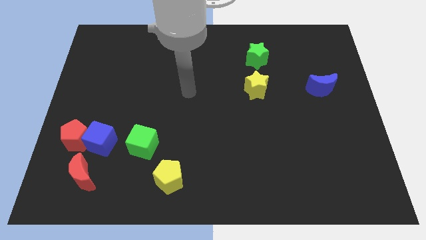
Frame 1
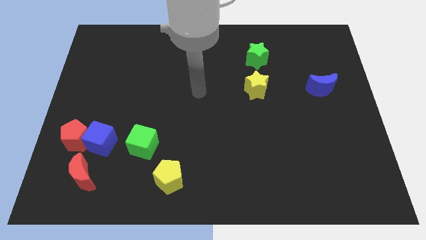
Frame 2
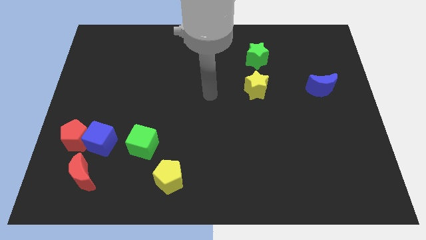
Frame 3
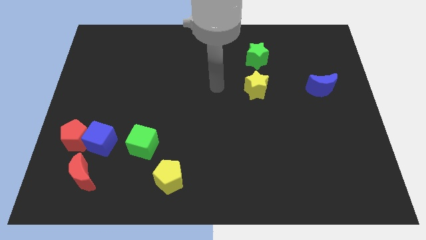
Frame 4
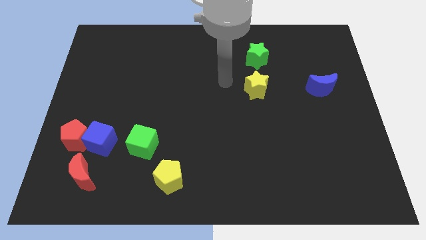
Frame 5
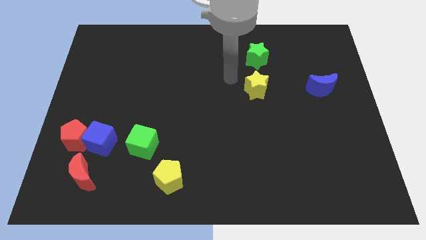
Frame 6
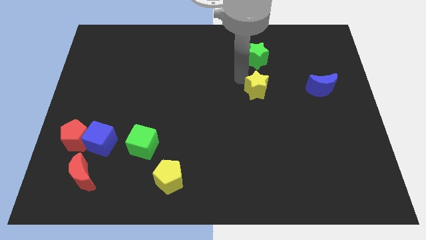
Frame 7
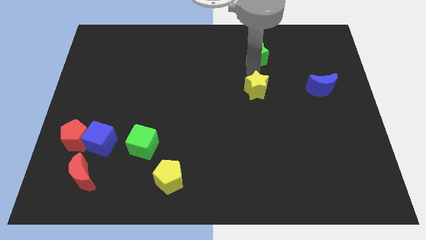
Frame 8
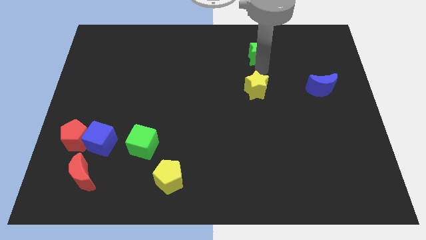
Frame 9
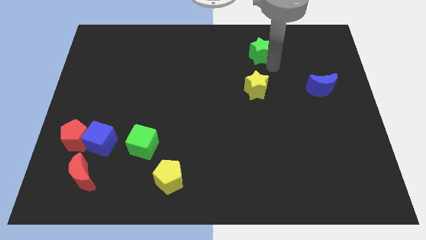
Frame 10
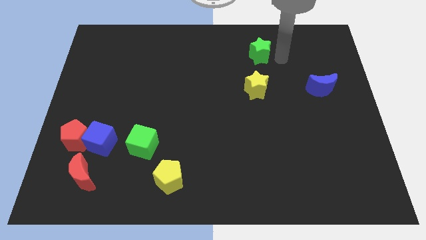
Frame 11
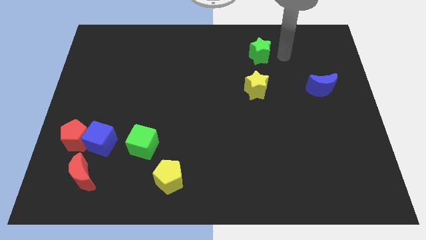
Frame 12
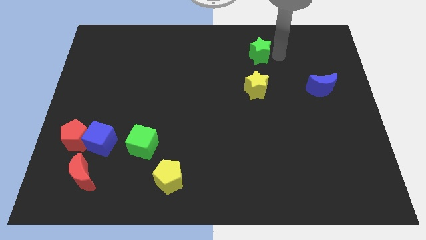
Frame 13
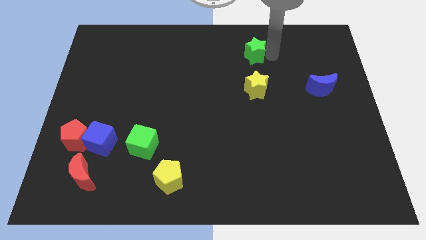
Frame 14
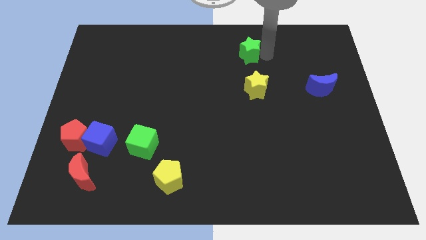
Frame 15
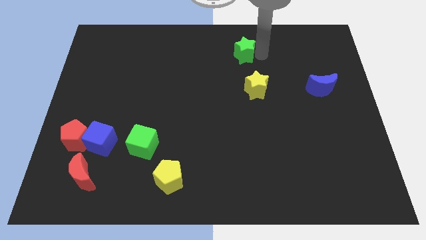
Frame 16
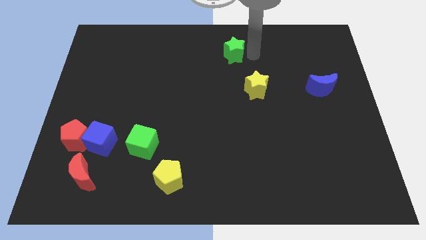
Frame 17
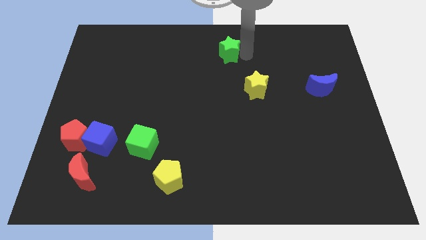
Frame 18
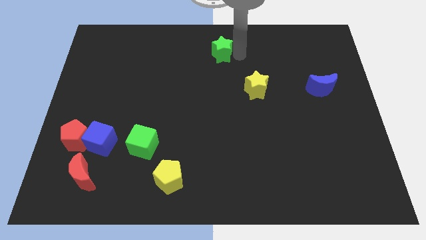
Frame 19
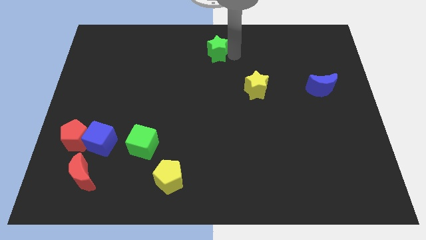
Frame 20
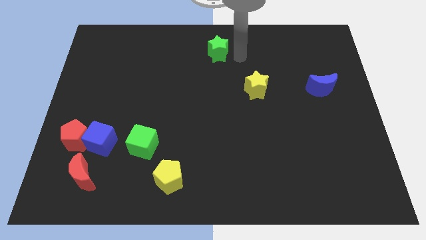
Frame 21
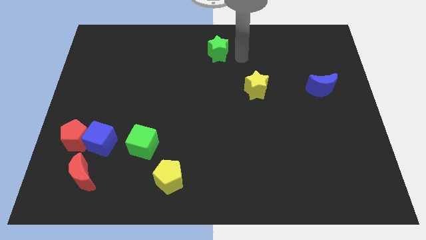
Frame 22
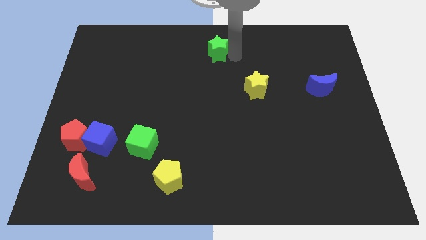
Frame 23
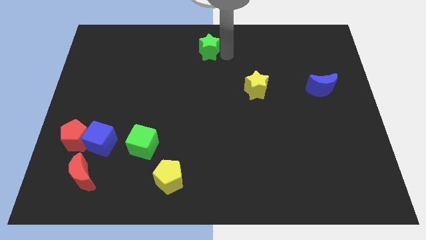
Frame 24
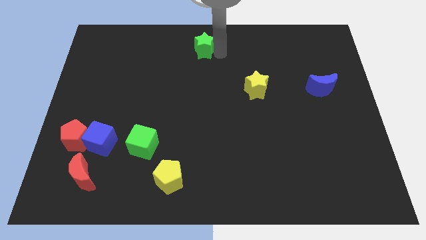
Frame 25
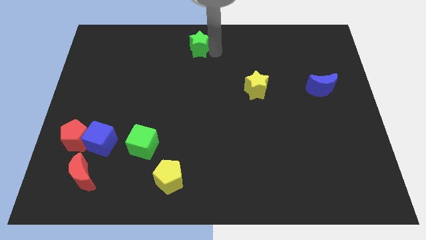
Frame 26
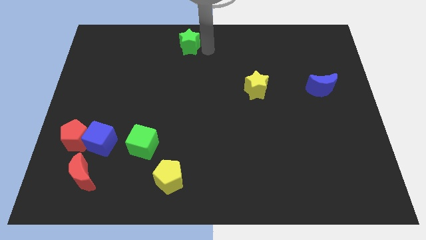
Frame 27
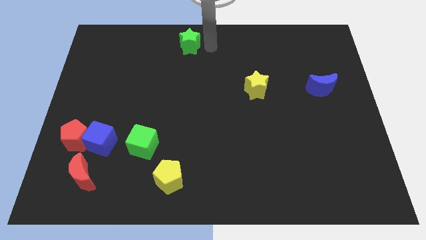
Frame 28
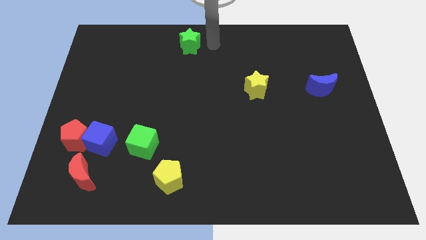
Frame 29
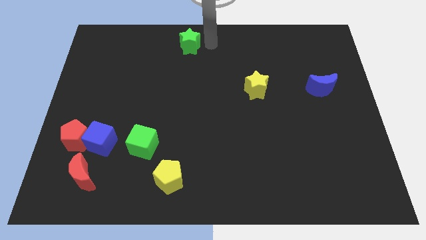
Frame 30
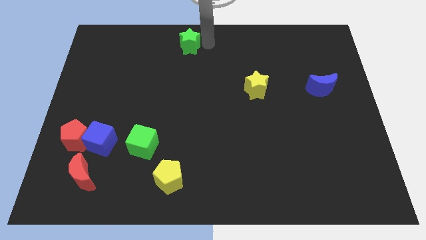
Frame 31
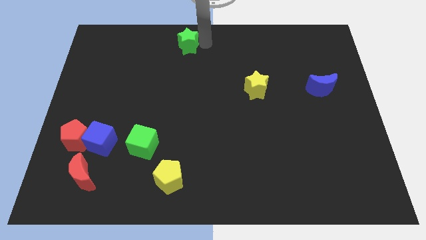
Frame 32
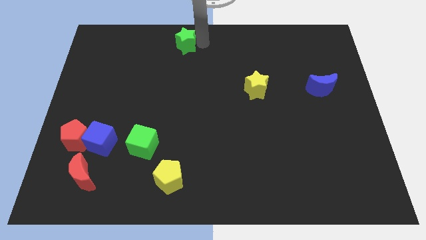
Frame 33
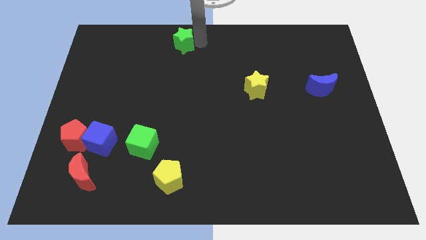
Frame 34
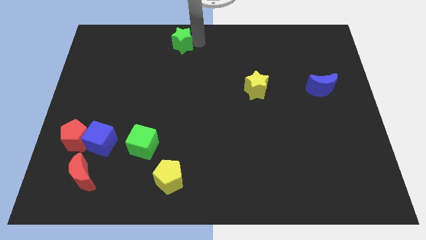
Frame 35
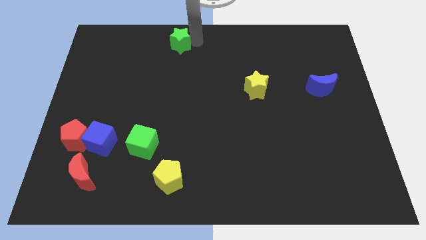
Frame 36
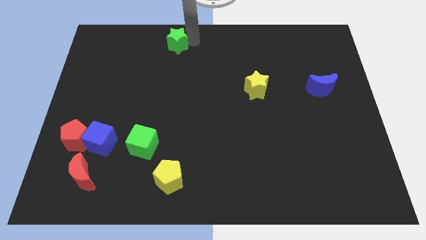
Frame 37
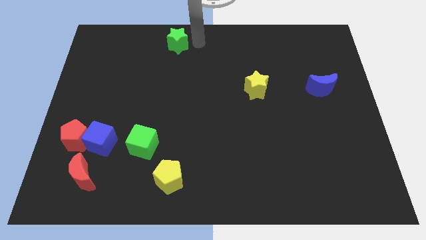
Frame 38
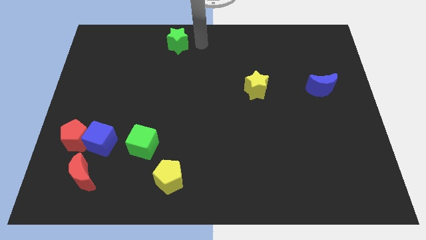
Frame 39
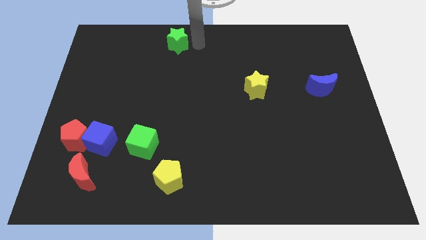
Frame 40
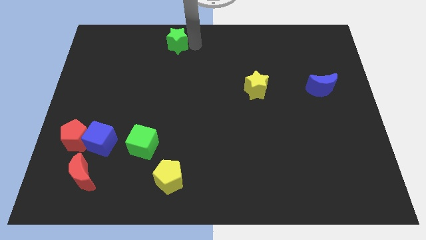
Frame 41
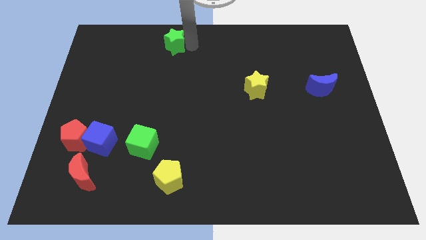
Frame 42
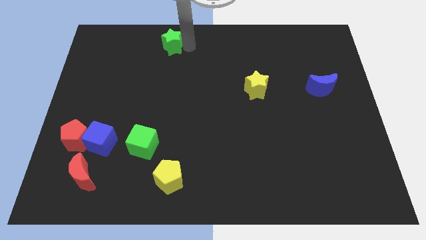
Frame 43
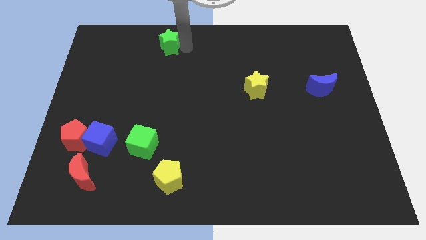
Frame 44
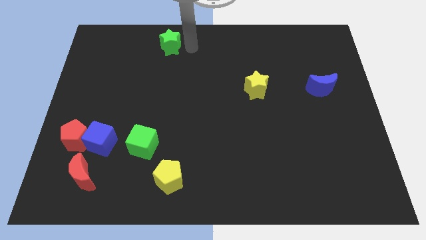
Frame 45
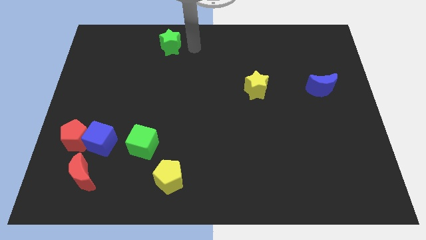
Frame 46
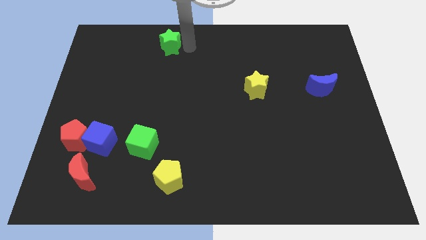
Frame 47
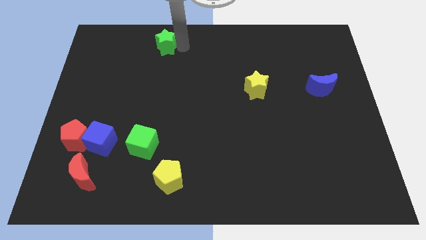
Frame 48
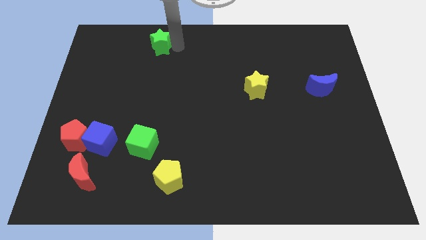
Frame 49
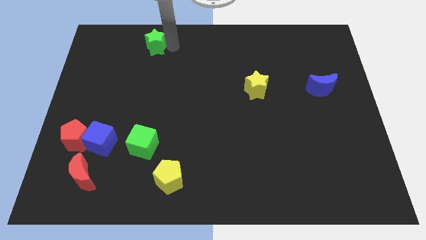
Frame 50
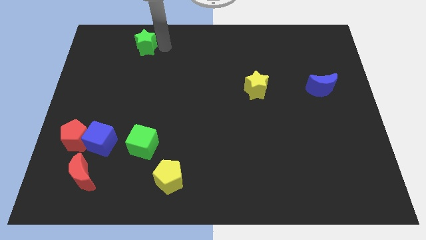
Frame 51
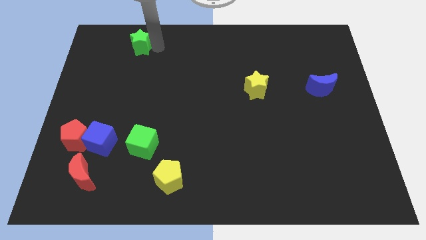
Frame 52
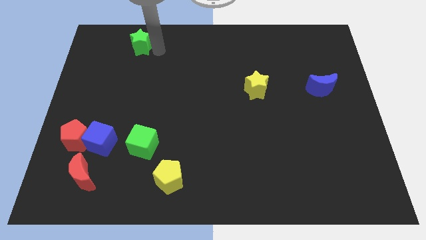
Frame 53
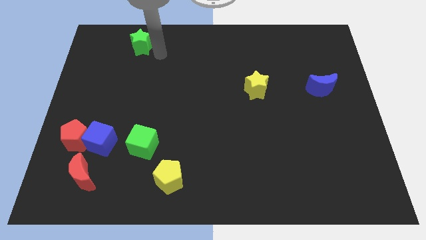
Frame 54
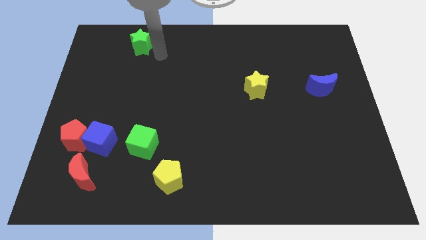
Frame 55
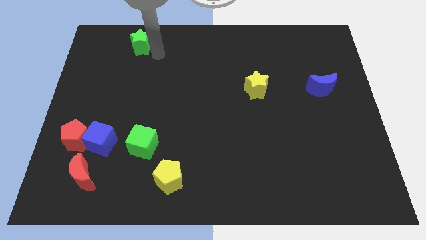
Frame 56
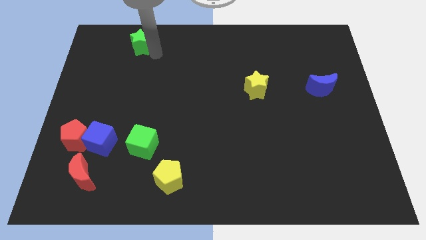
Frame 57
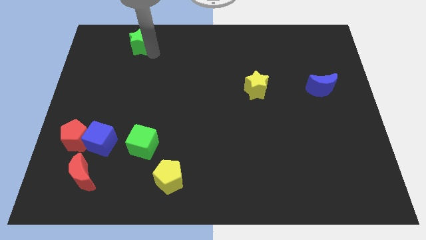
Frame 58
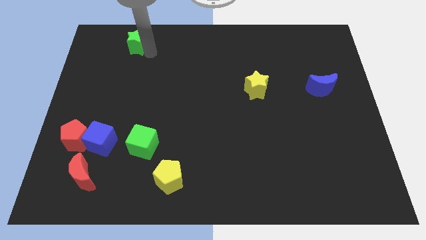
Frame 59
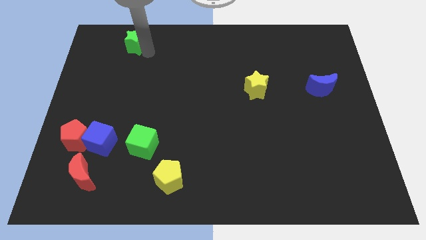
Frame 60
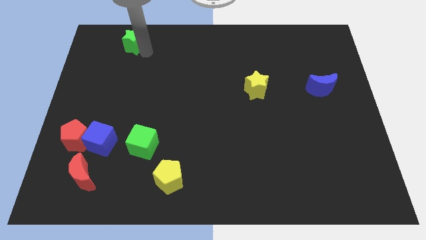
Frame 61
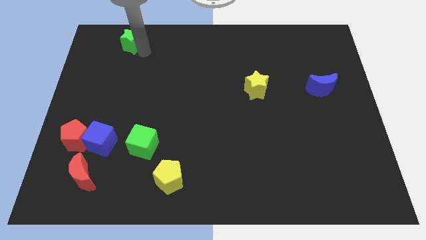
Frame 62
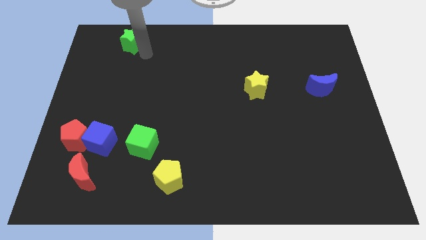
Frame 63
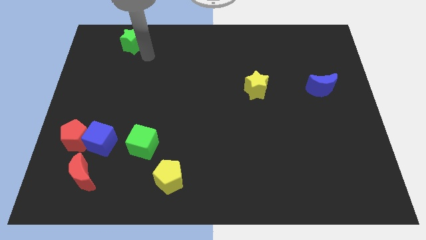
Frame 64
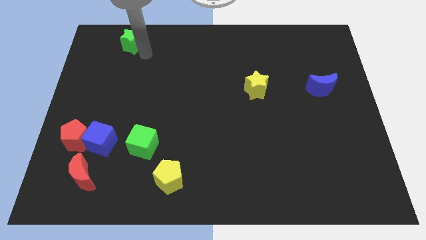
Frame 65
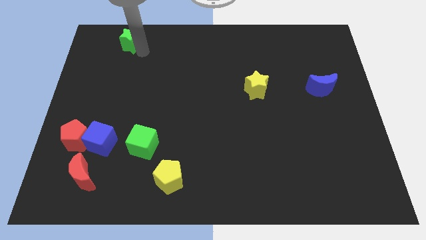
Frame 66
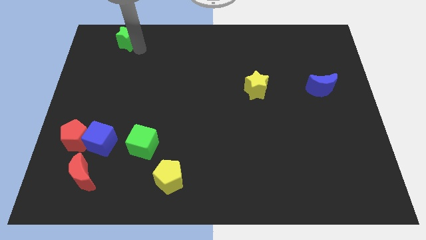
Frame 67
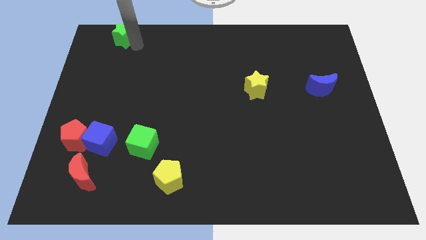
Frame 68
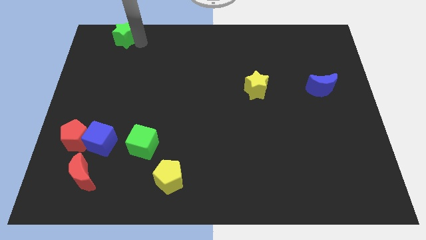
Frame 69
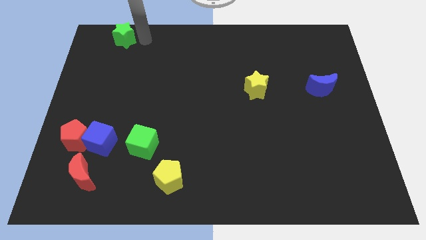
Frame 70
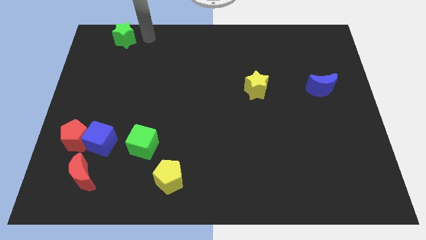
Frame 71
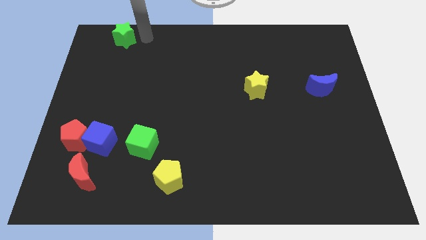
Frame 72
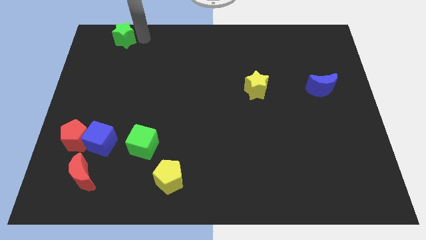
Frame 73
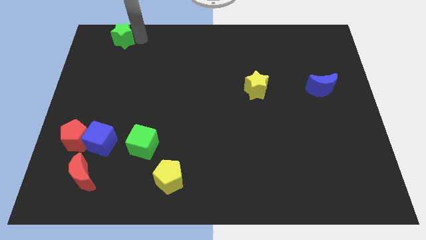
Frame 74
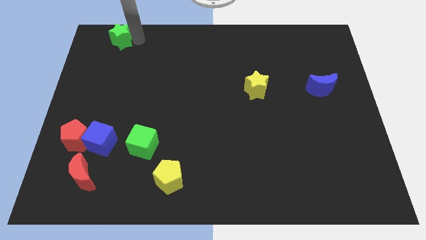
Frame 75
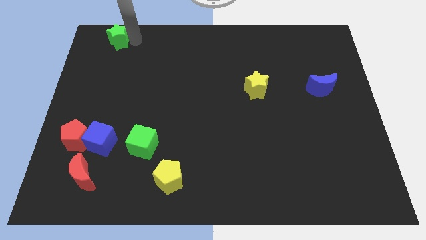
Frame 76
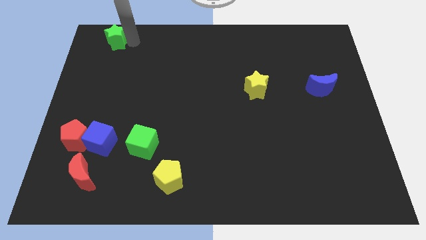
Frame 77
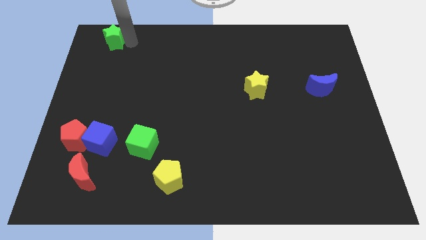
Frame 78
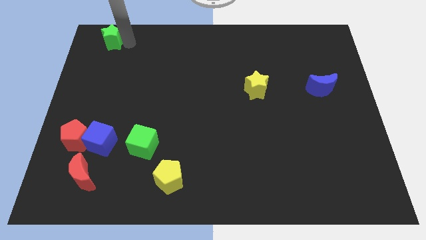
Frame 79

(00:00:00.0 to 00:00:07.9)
slide the green star to the top left of the board

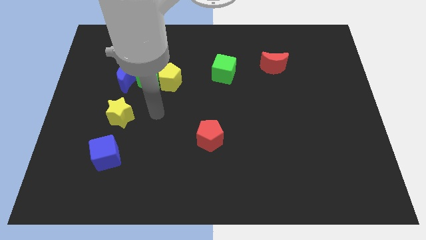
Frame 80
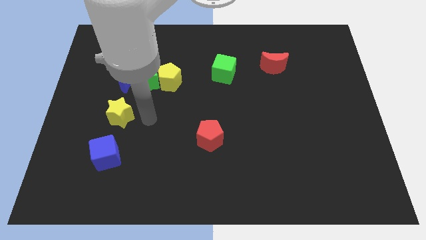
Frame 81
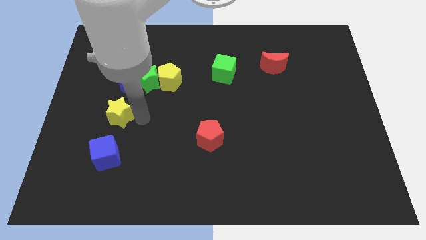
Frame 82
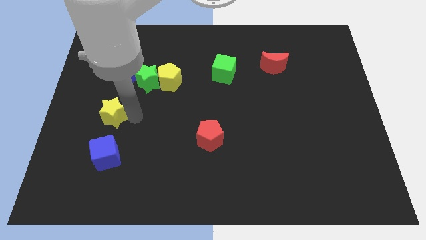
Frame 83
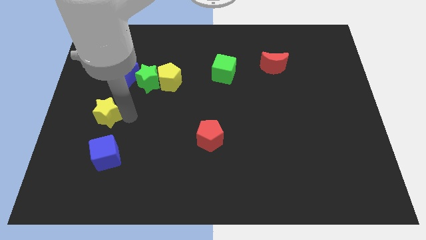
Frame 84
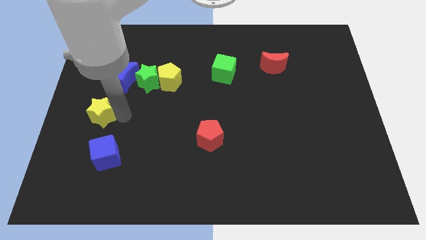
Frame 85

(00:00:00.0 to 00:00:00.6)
slide the yellow star to the center left
